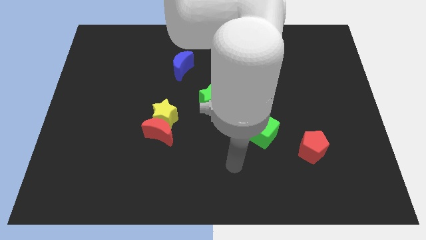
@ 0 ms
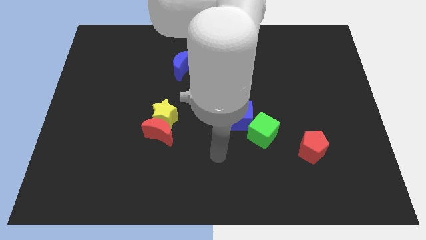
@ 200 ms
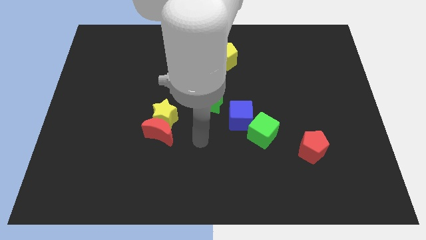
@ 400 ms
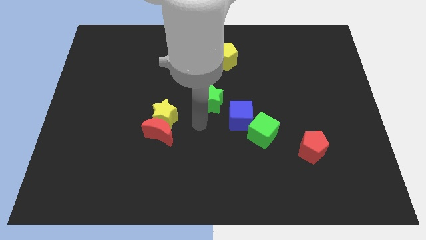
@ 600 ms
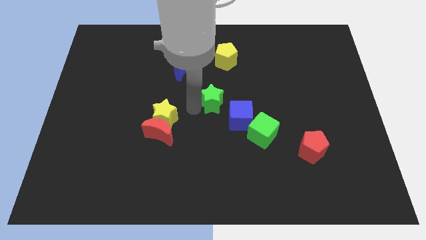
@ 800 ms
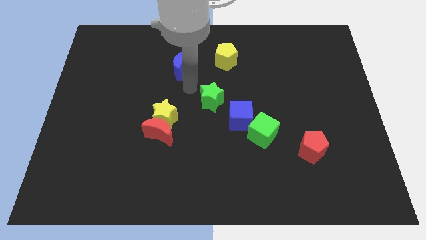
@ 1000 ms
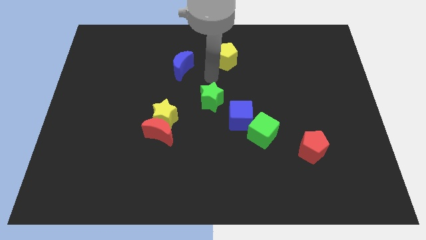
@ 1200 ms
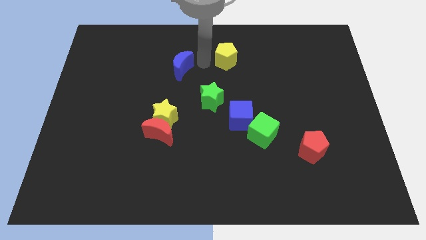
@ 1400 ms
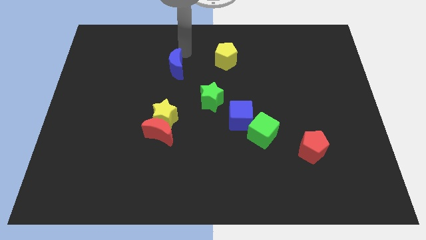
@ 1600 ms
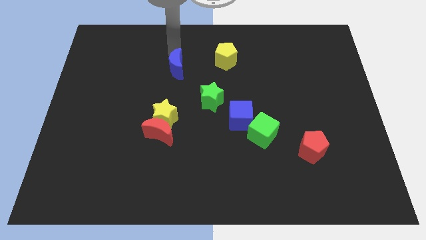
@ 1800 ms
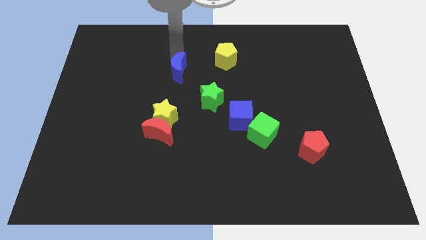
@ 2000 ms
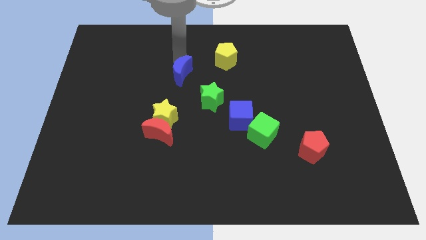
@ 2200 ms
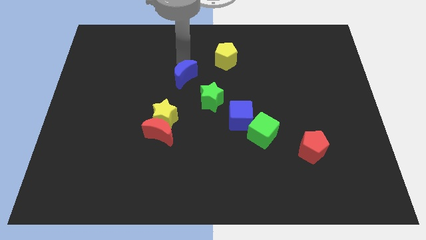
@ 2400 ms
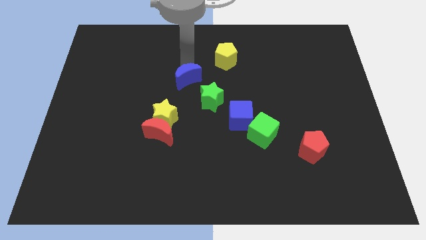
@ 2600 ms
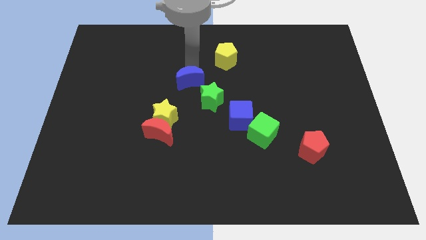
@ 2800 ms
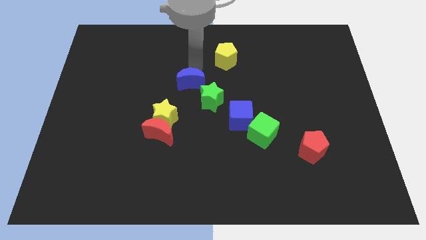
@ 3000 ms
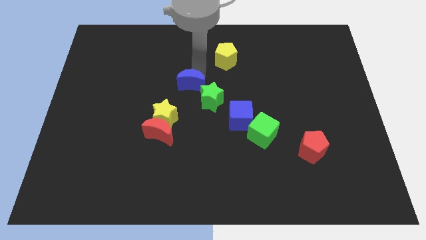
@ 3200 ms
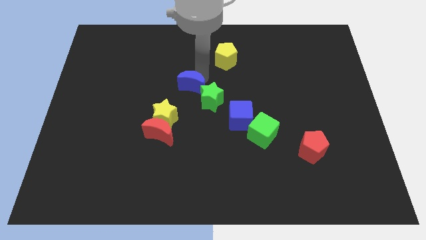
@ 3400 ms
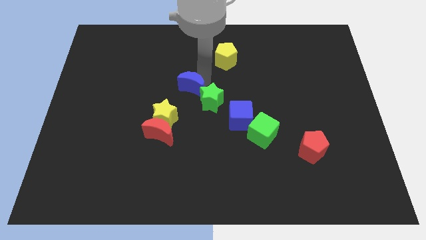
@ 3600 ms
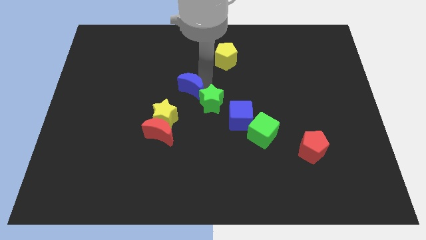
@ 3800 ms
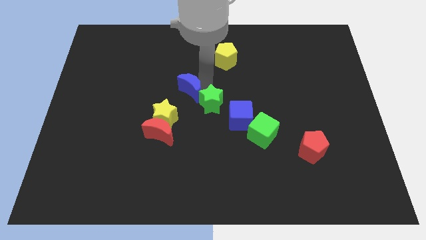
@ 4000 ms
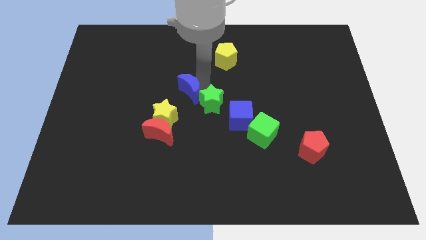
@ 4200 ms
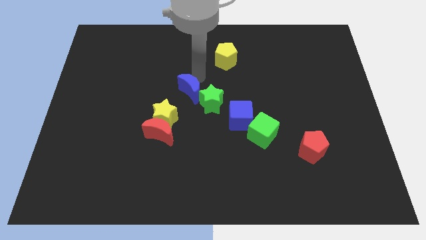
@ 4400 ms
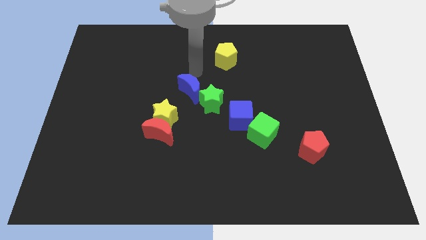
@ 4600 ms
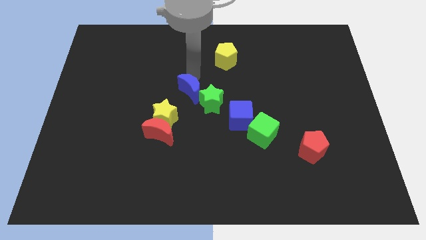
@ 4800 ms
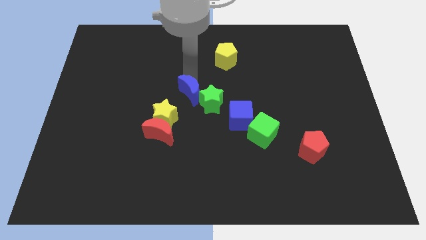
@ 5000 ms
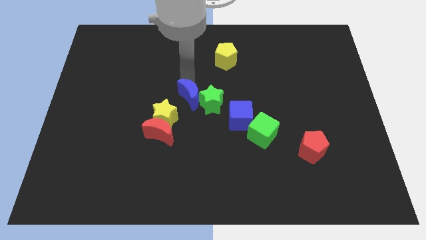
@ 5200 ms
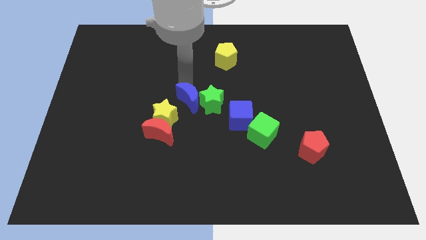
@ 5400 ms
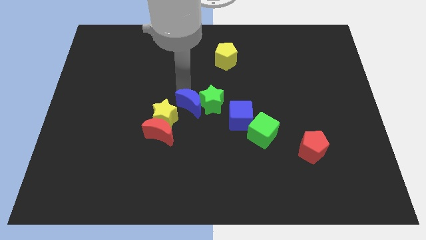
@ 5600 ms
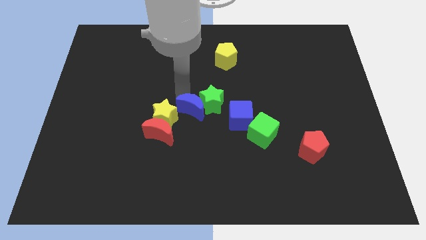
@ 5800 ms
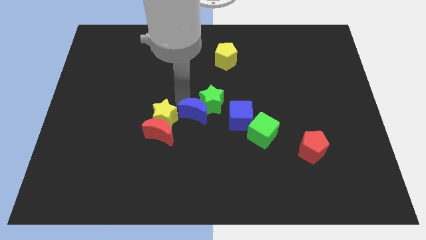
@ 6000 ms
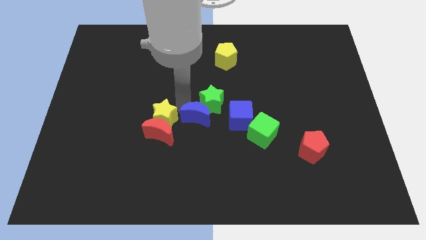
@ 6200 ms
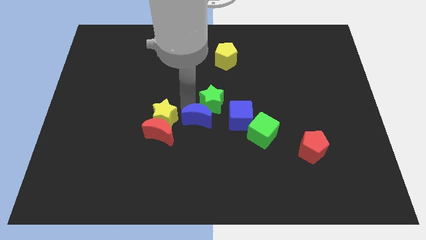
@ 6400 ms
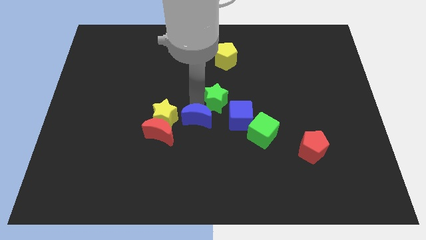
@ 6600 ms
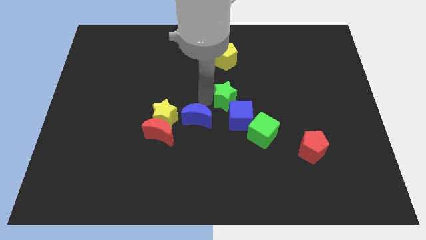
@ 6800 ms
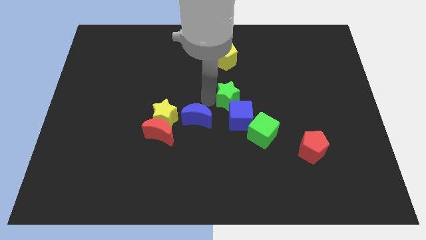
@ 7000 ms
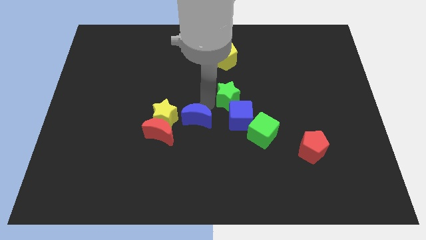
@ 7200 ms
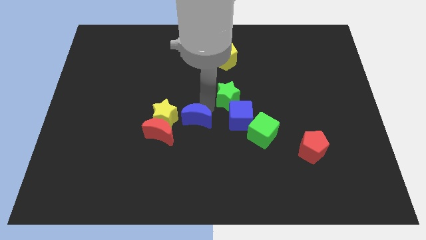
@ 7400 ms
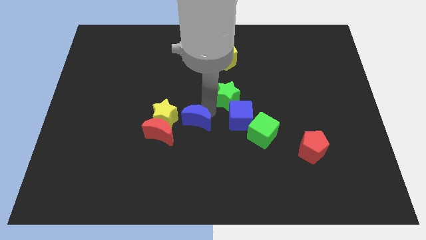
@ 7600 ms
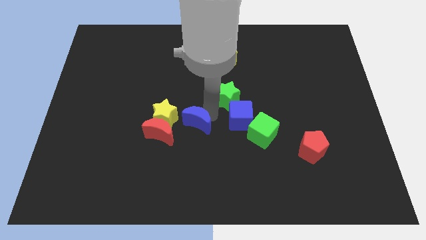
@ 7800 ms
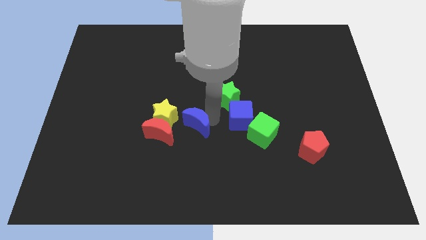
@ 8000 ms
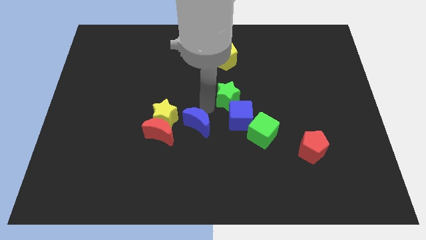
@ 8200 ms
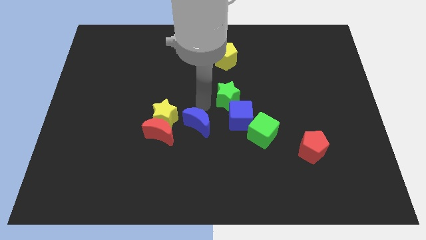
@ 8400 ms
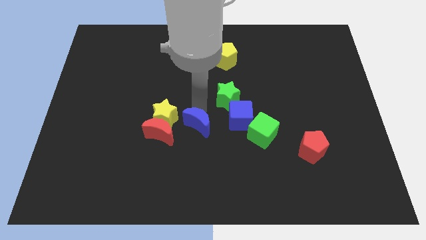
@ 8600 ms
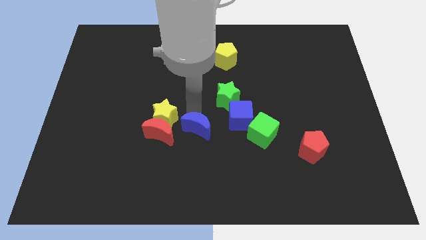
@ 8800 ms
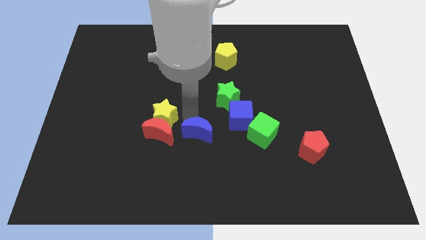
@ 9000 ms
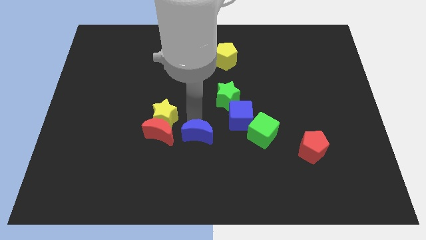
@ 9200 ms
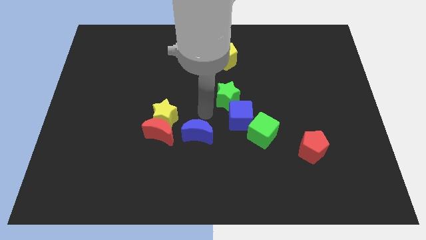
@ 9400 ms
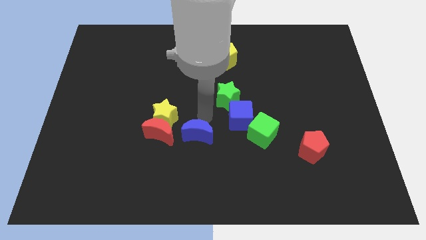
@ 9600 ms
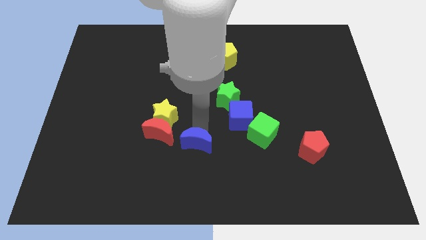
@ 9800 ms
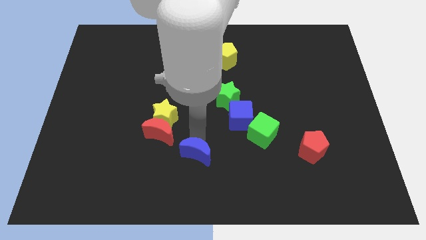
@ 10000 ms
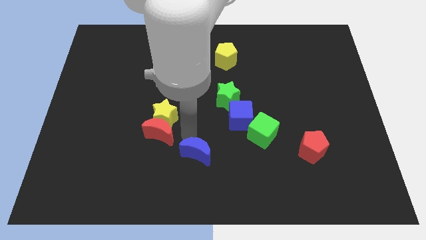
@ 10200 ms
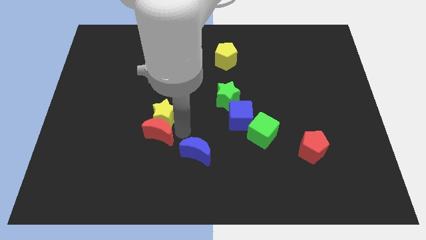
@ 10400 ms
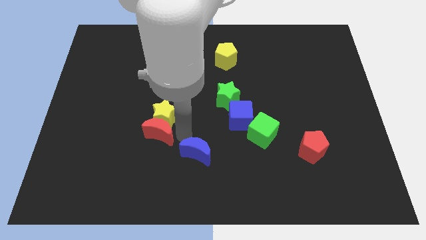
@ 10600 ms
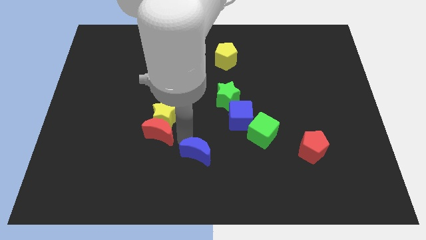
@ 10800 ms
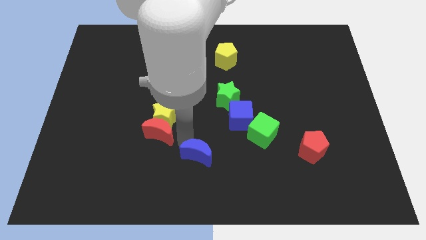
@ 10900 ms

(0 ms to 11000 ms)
move the blue moon to the bottom side
